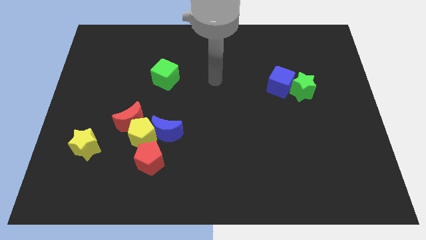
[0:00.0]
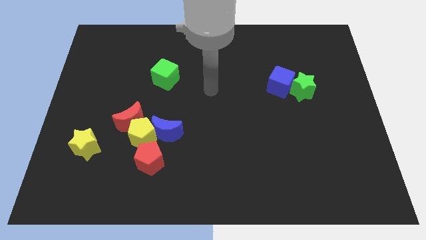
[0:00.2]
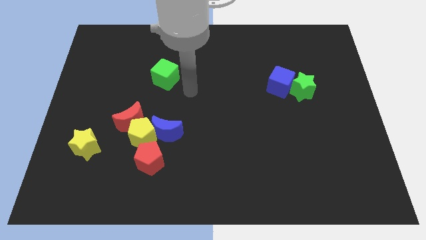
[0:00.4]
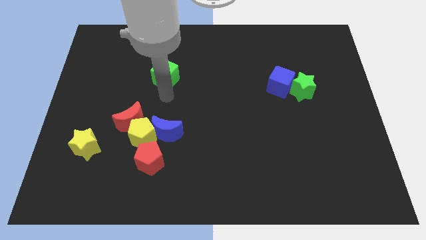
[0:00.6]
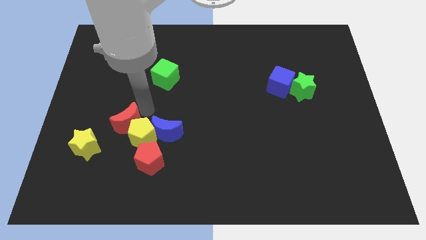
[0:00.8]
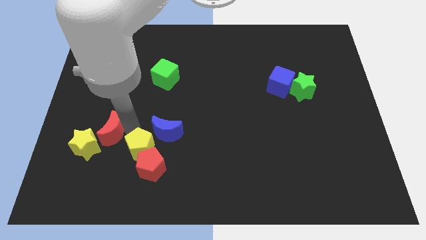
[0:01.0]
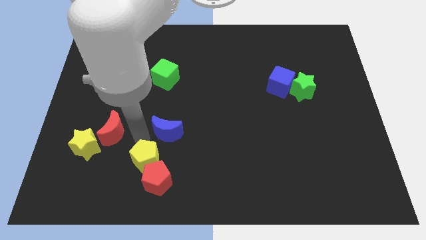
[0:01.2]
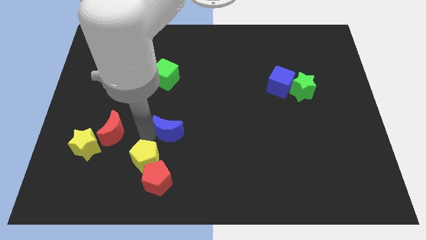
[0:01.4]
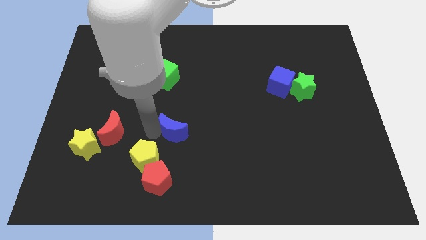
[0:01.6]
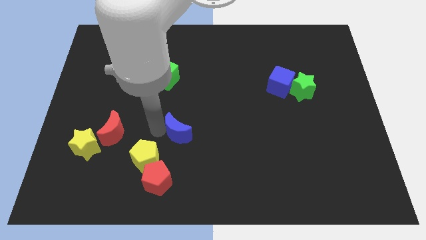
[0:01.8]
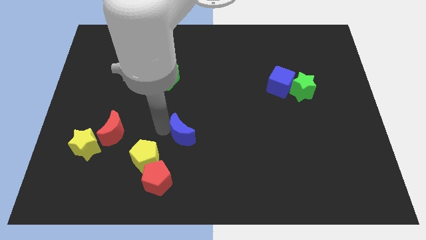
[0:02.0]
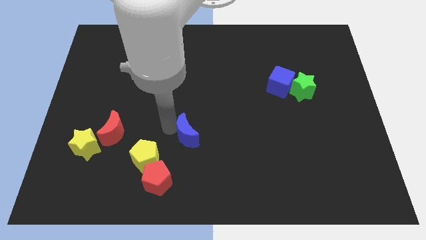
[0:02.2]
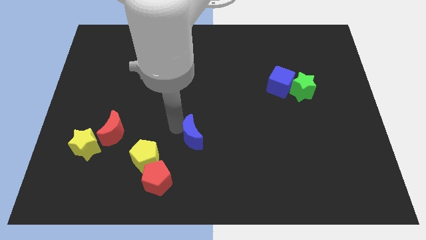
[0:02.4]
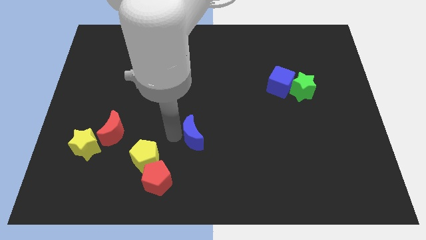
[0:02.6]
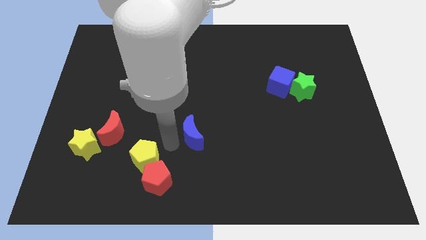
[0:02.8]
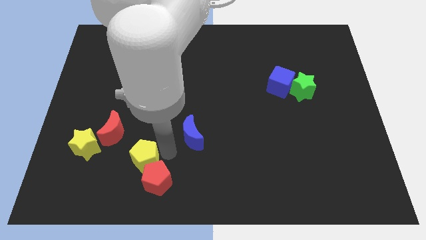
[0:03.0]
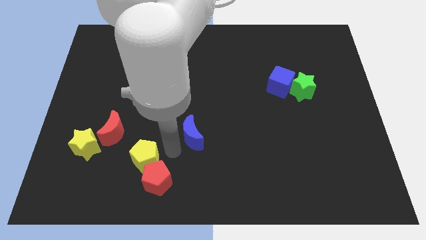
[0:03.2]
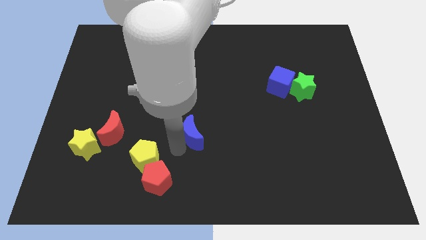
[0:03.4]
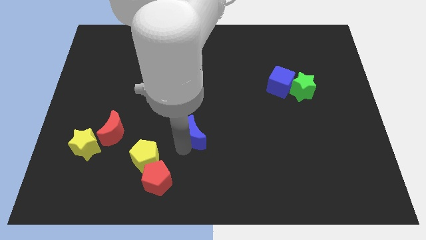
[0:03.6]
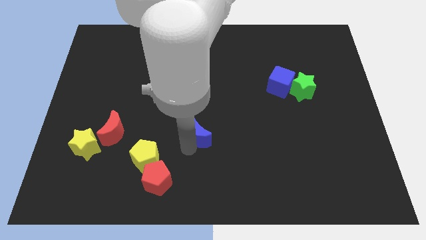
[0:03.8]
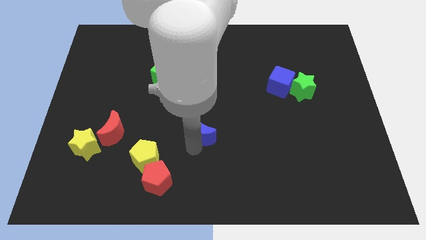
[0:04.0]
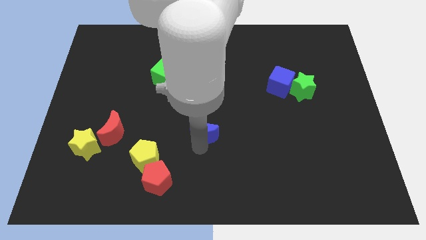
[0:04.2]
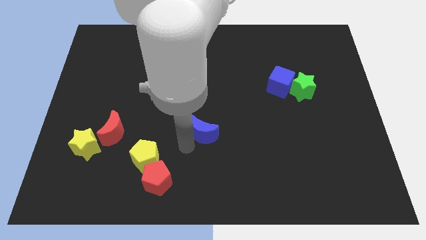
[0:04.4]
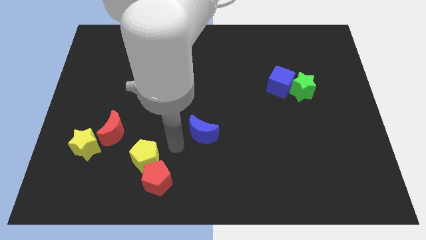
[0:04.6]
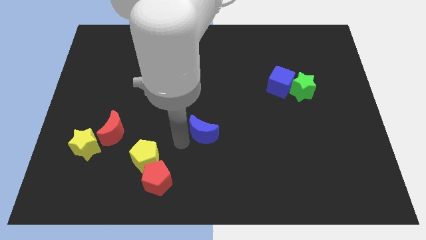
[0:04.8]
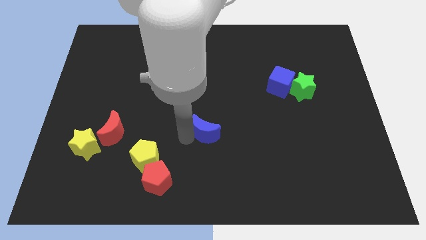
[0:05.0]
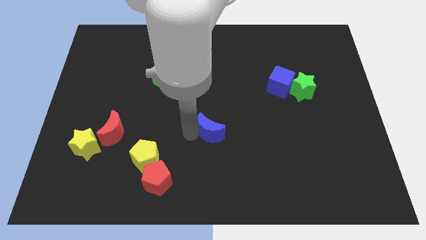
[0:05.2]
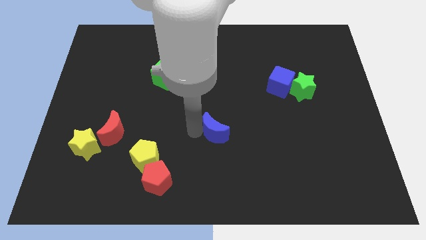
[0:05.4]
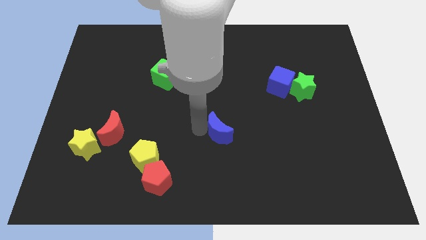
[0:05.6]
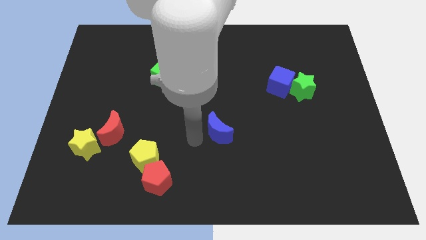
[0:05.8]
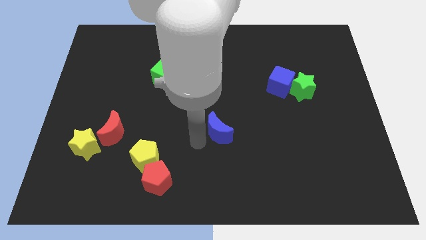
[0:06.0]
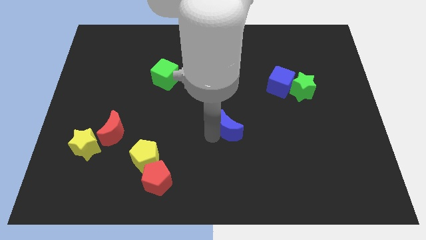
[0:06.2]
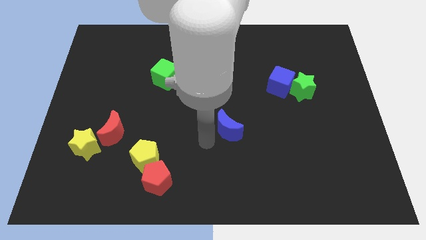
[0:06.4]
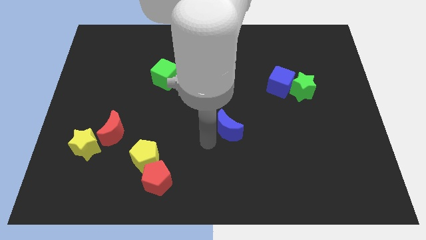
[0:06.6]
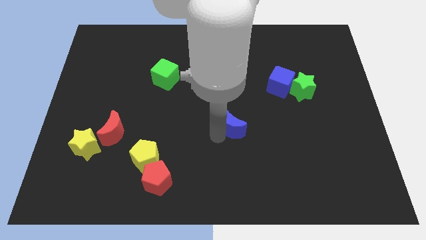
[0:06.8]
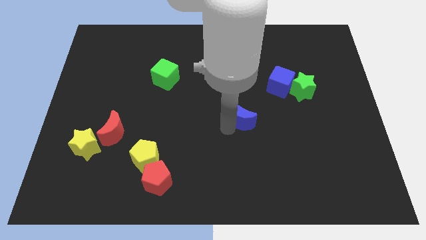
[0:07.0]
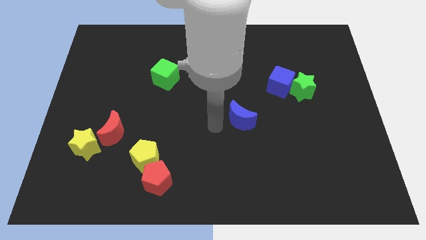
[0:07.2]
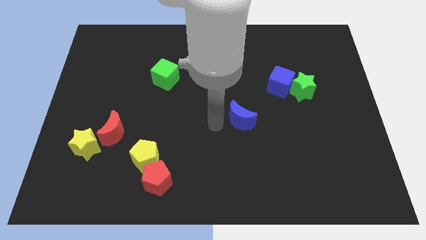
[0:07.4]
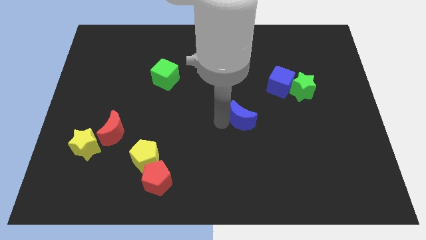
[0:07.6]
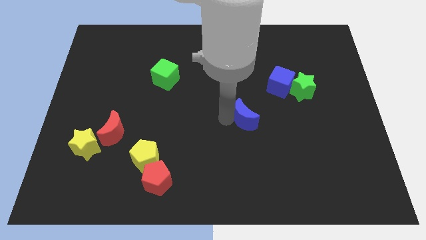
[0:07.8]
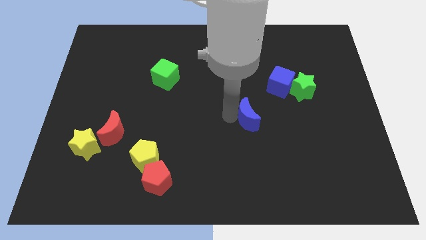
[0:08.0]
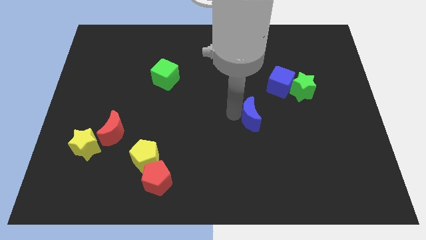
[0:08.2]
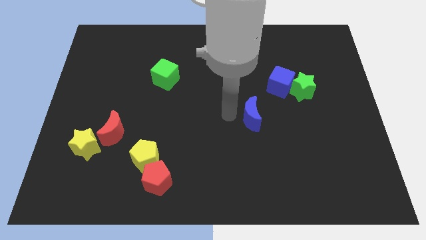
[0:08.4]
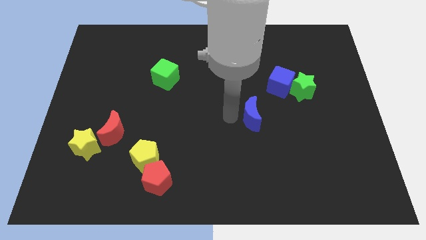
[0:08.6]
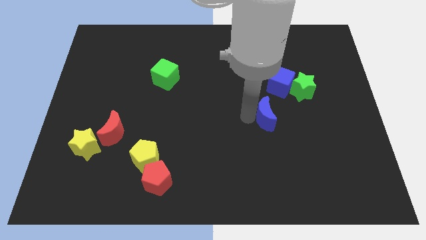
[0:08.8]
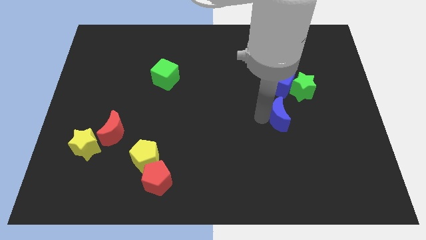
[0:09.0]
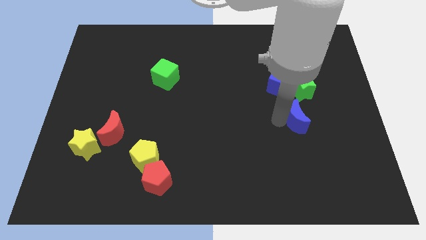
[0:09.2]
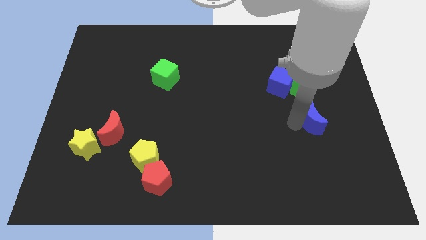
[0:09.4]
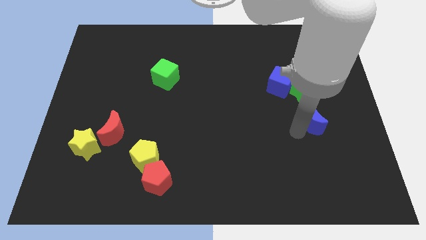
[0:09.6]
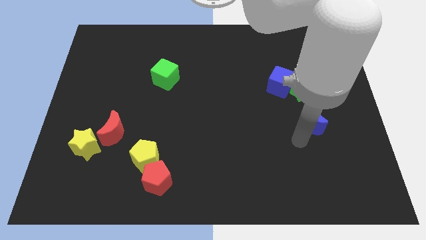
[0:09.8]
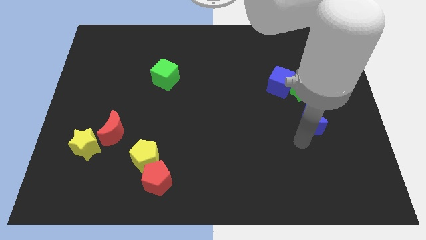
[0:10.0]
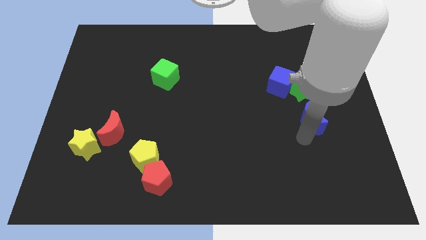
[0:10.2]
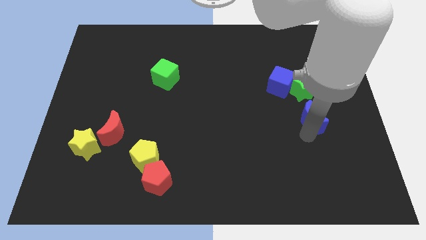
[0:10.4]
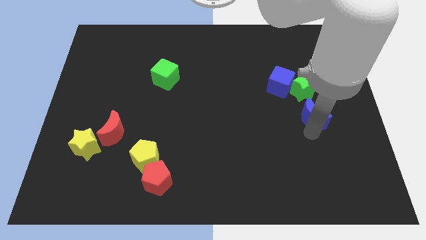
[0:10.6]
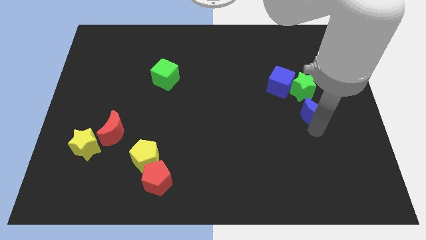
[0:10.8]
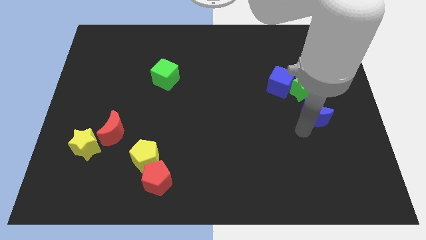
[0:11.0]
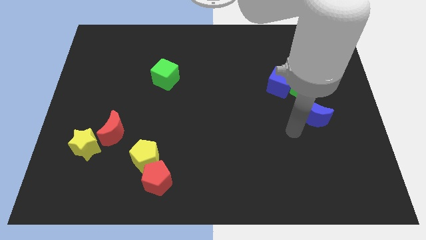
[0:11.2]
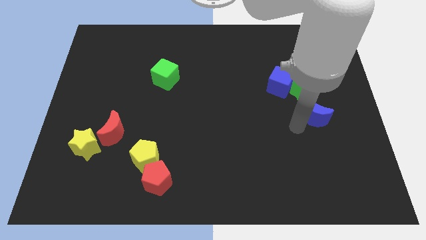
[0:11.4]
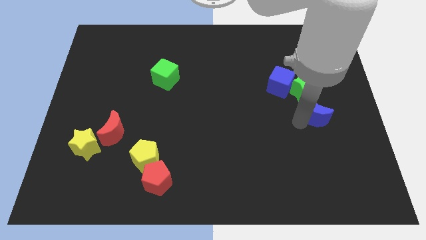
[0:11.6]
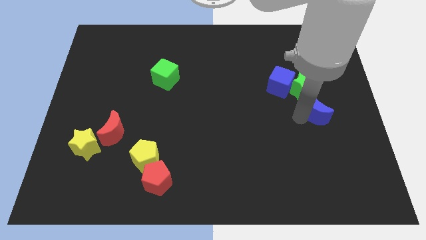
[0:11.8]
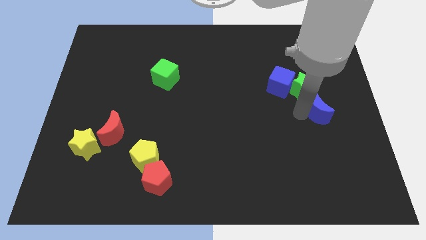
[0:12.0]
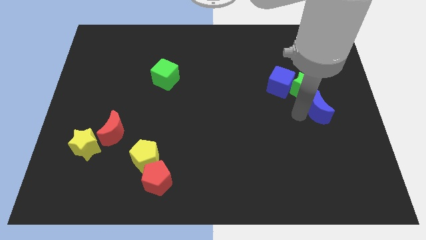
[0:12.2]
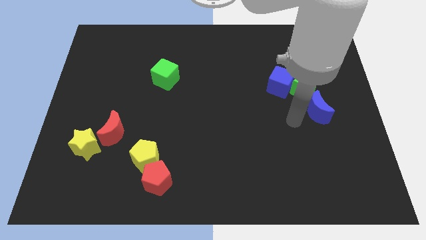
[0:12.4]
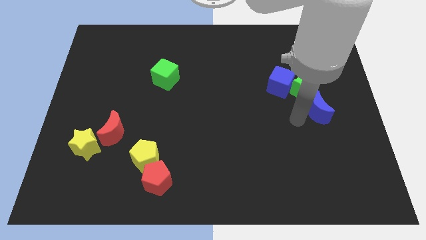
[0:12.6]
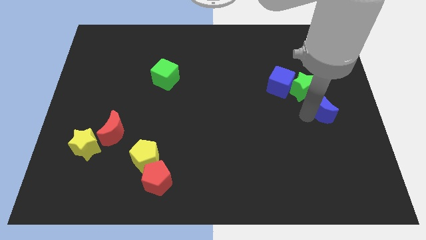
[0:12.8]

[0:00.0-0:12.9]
move the blue moon to the right side of the board
